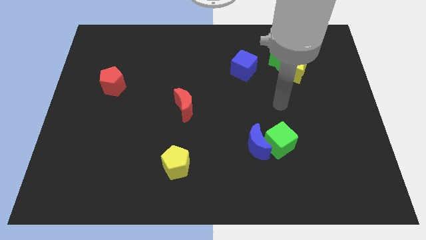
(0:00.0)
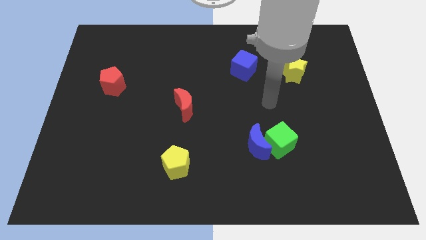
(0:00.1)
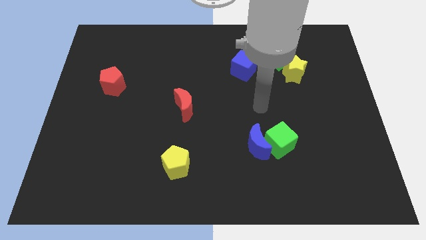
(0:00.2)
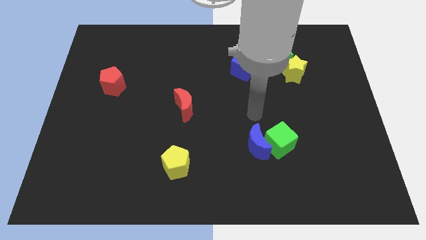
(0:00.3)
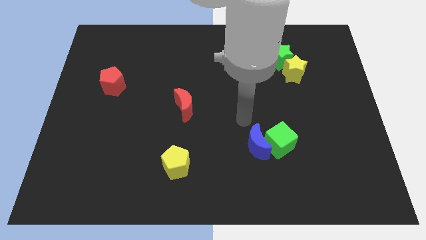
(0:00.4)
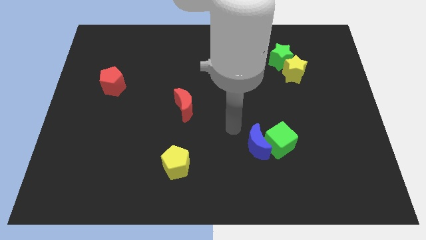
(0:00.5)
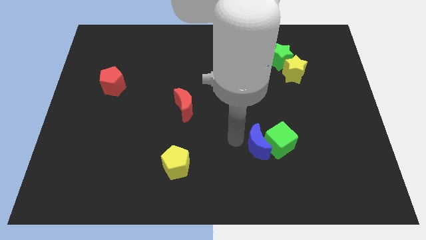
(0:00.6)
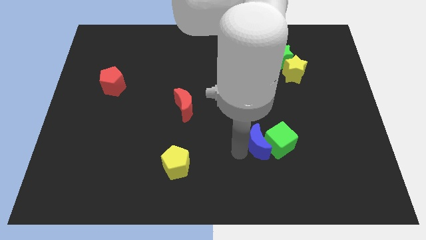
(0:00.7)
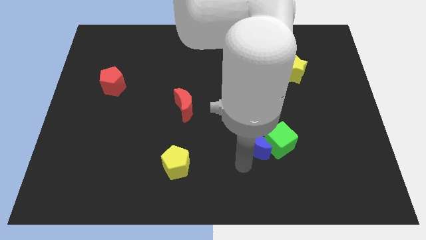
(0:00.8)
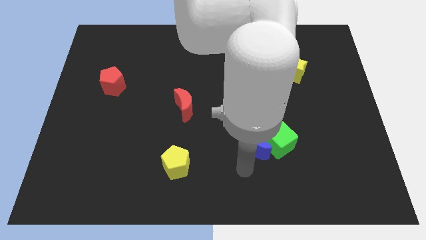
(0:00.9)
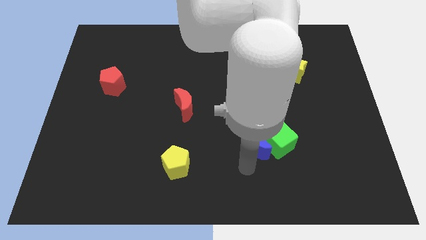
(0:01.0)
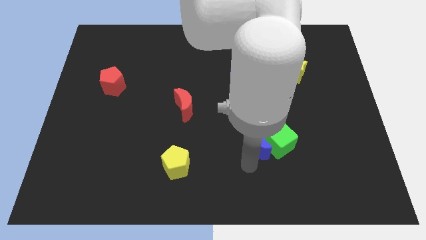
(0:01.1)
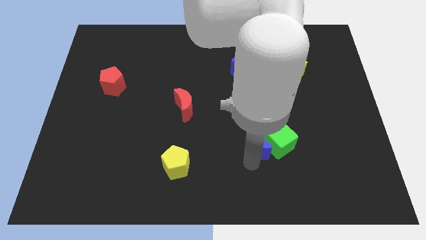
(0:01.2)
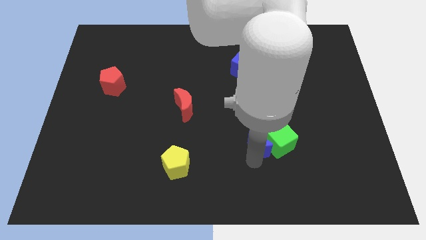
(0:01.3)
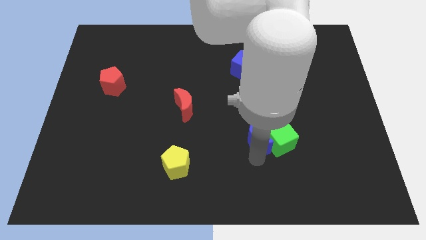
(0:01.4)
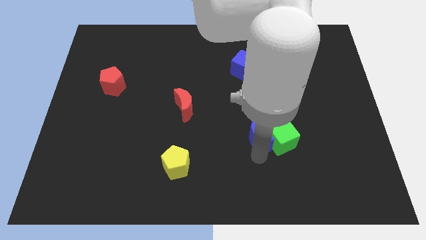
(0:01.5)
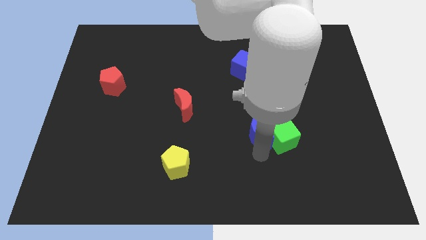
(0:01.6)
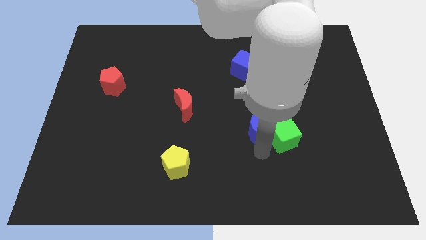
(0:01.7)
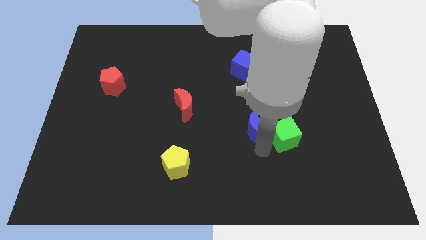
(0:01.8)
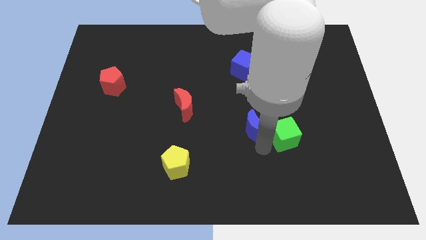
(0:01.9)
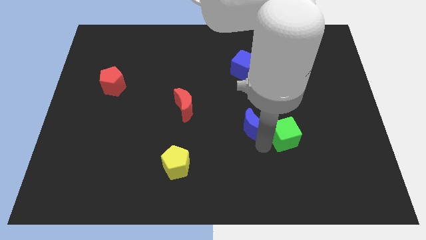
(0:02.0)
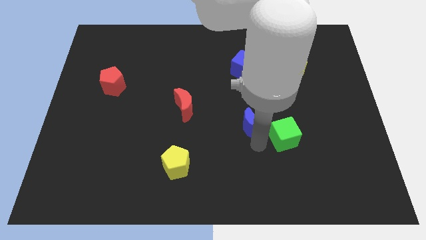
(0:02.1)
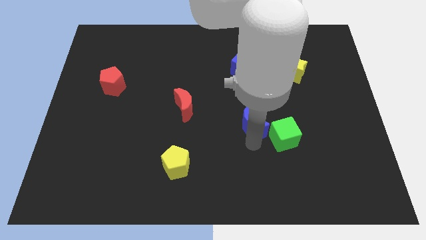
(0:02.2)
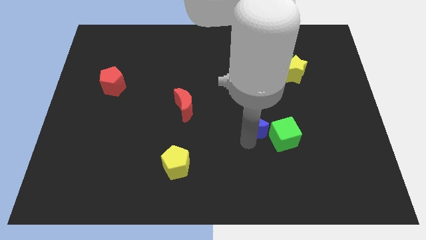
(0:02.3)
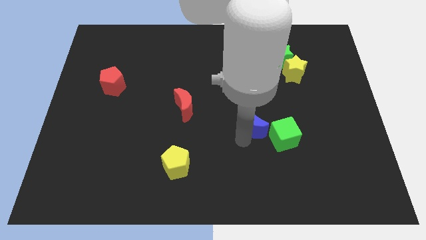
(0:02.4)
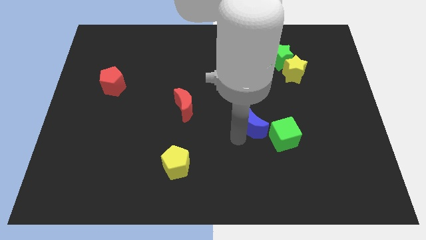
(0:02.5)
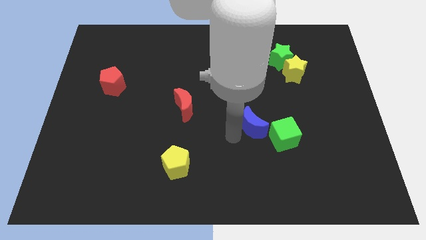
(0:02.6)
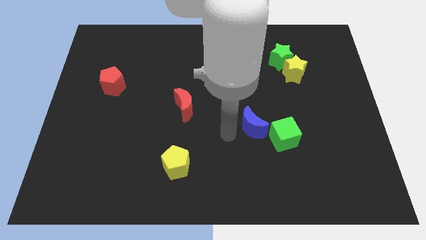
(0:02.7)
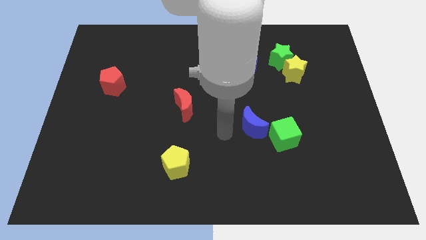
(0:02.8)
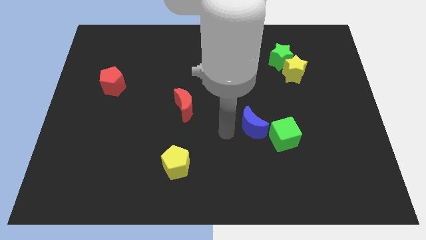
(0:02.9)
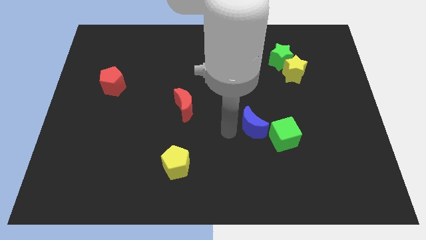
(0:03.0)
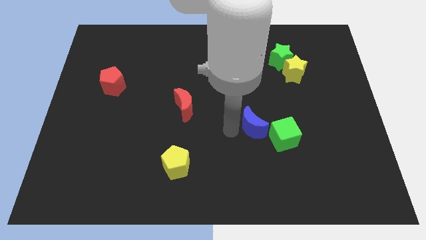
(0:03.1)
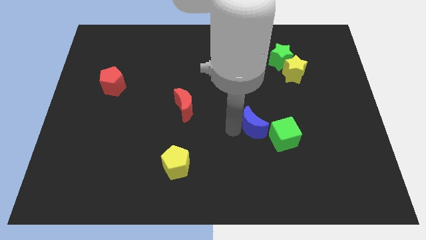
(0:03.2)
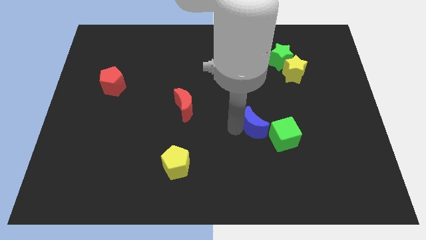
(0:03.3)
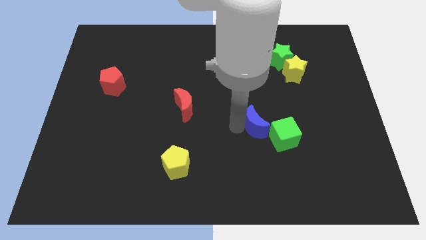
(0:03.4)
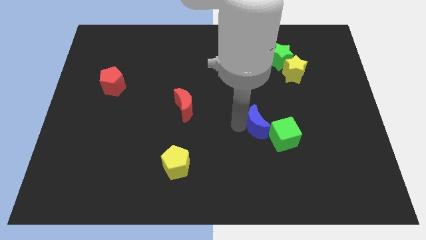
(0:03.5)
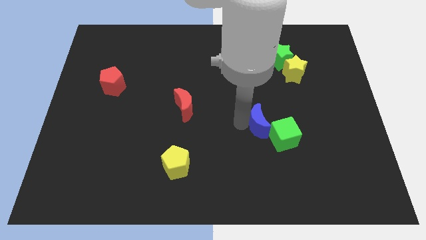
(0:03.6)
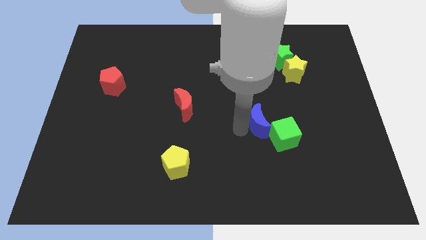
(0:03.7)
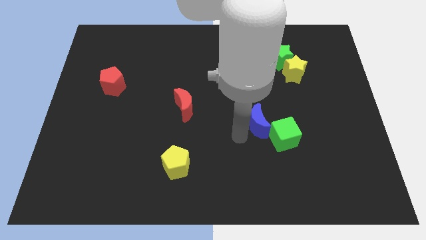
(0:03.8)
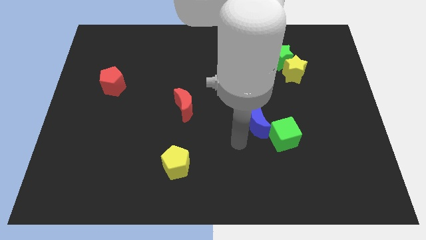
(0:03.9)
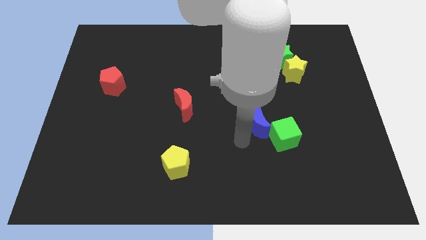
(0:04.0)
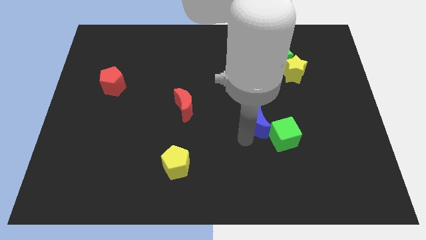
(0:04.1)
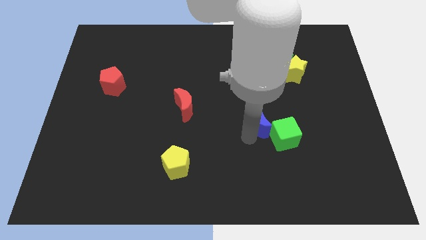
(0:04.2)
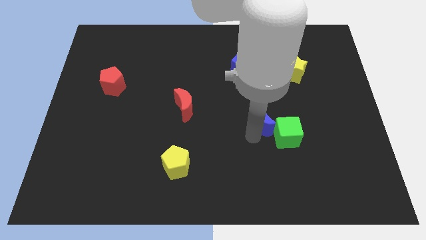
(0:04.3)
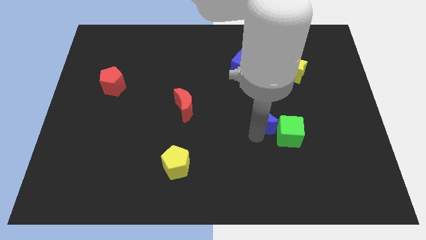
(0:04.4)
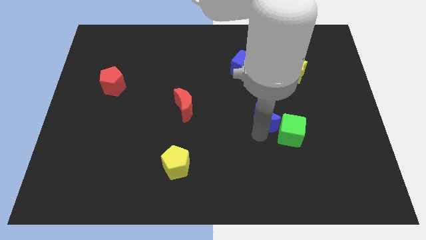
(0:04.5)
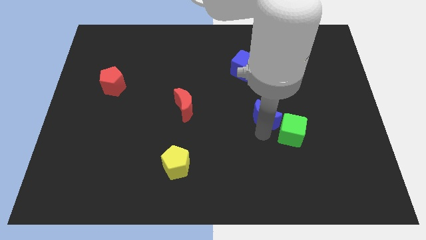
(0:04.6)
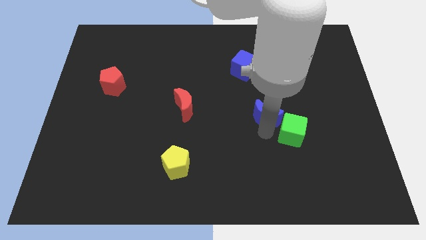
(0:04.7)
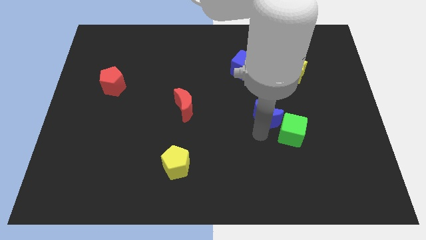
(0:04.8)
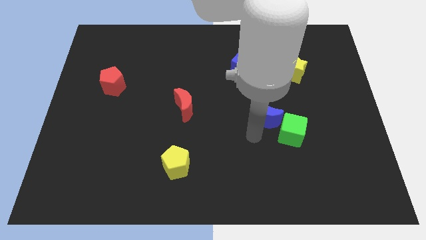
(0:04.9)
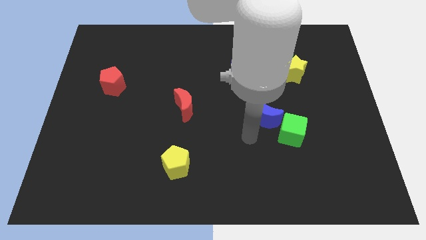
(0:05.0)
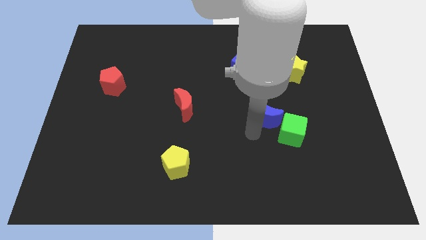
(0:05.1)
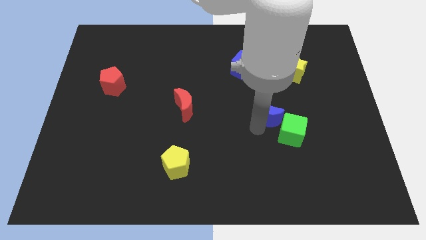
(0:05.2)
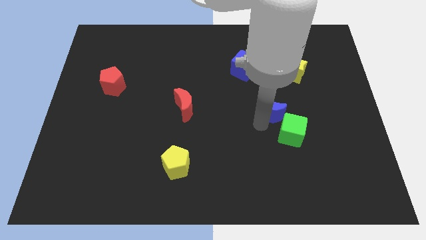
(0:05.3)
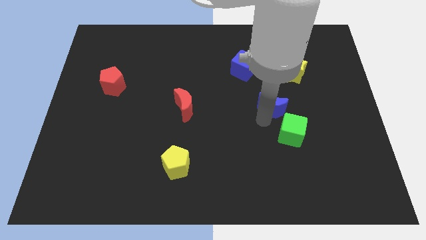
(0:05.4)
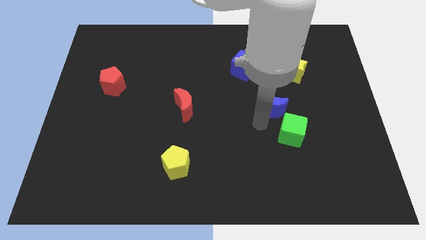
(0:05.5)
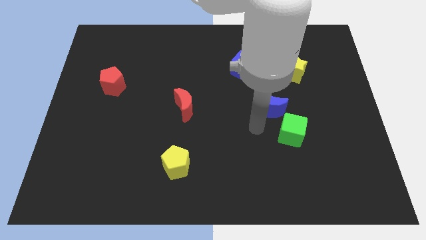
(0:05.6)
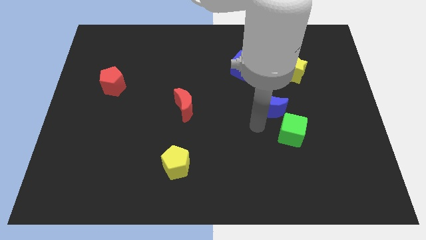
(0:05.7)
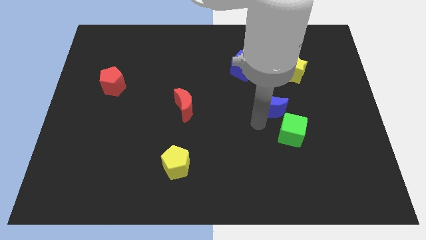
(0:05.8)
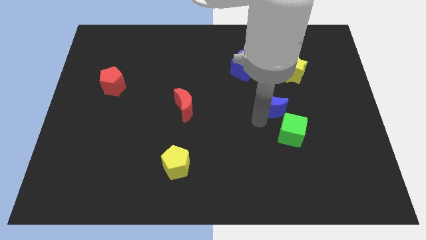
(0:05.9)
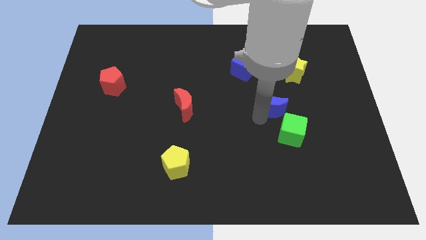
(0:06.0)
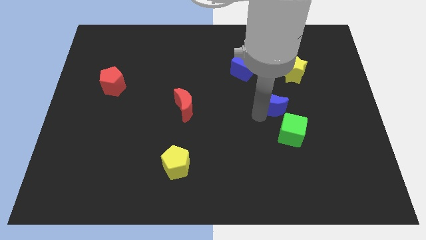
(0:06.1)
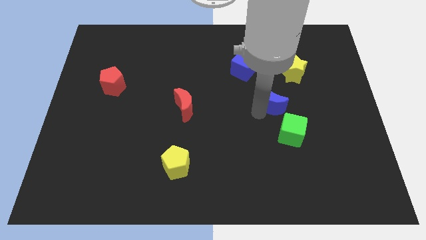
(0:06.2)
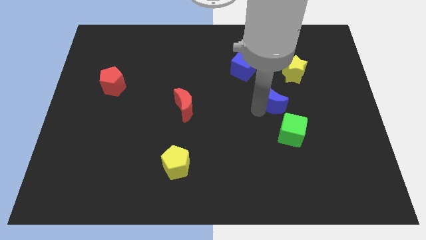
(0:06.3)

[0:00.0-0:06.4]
put the blue moon below the green star
